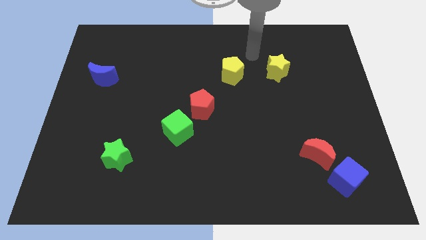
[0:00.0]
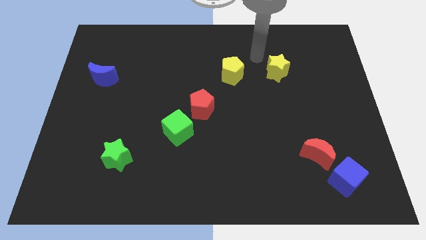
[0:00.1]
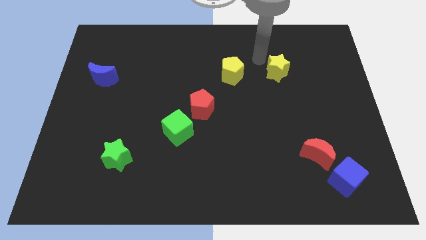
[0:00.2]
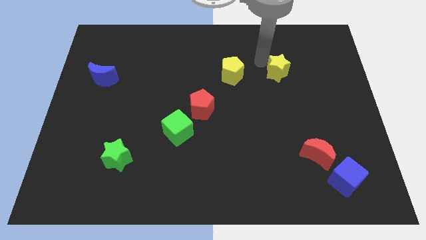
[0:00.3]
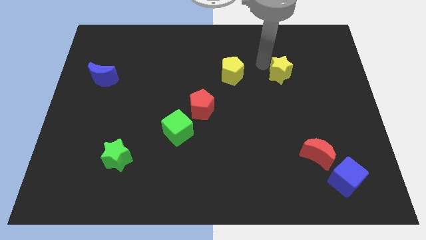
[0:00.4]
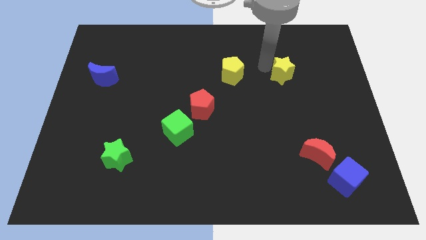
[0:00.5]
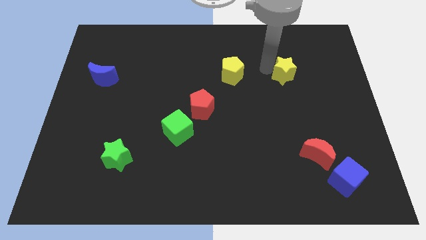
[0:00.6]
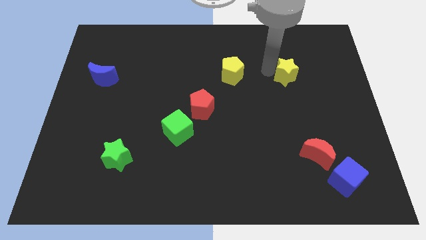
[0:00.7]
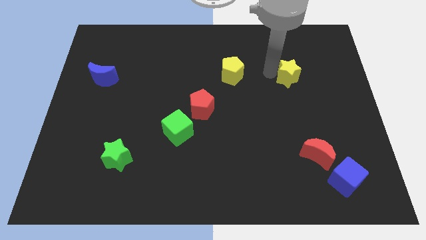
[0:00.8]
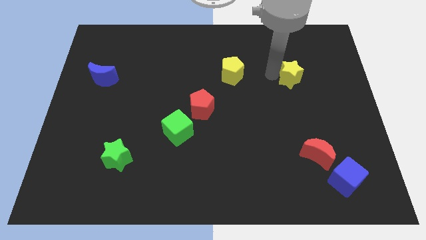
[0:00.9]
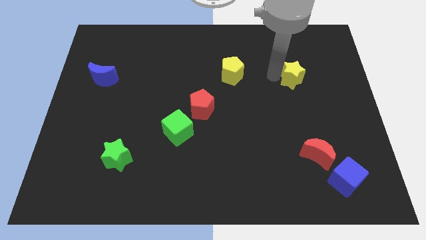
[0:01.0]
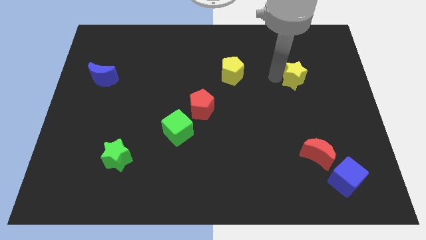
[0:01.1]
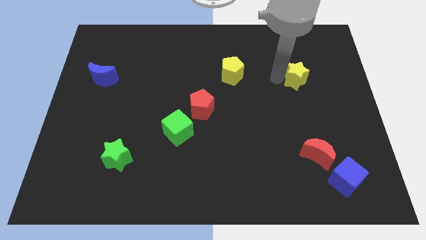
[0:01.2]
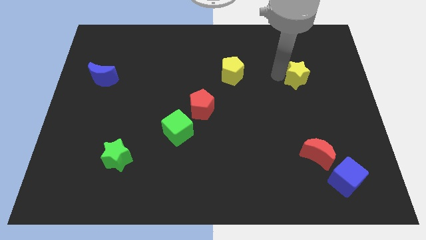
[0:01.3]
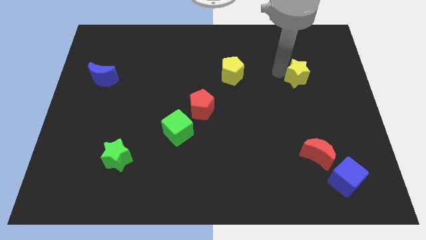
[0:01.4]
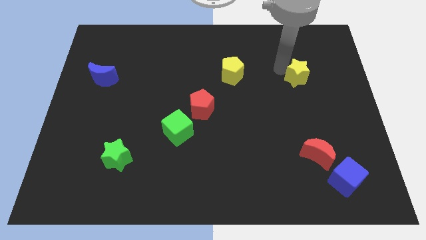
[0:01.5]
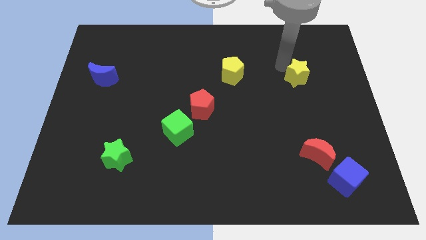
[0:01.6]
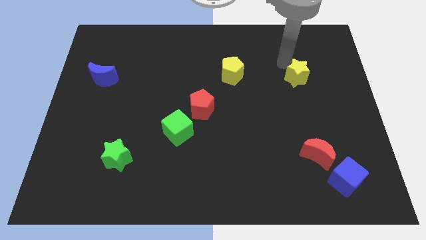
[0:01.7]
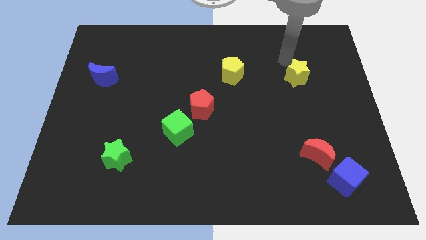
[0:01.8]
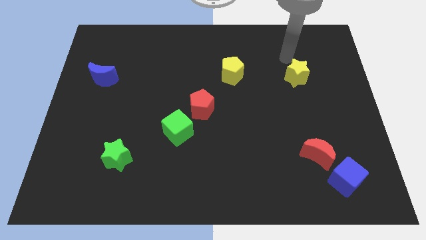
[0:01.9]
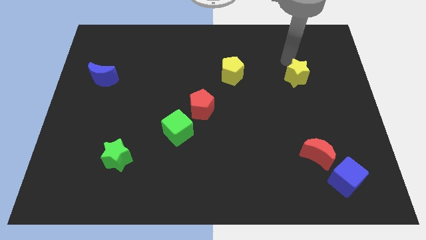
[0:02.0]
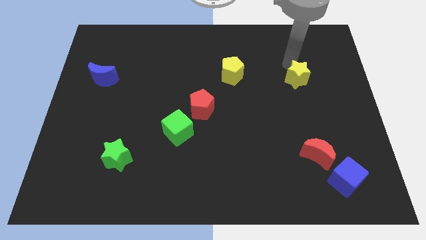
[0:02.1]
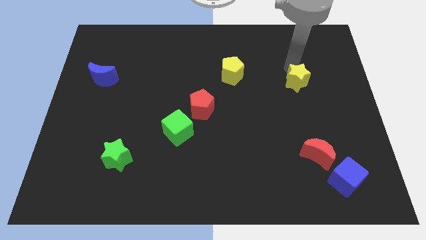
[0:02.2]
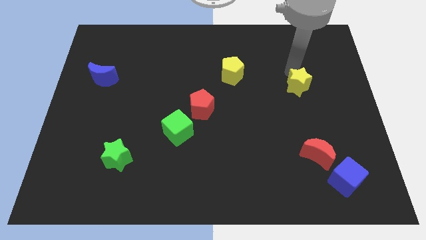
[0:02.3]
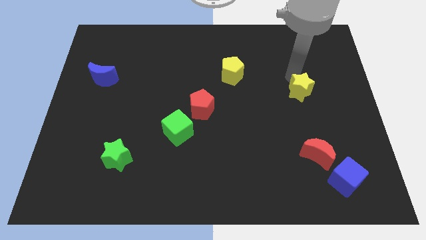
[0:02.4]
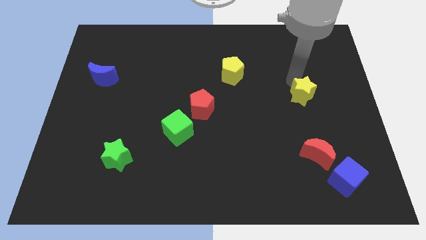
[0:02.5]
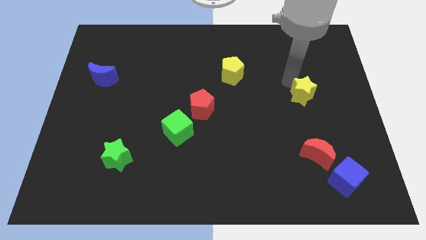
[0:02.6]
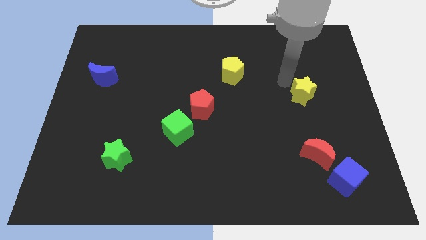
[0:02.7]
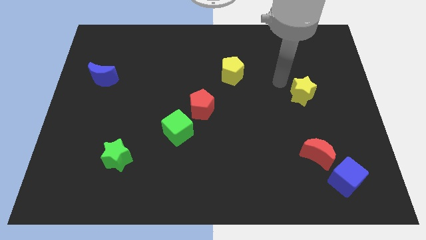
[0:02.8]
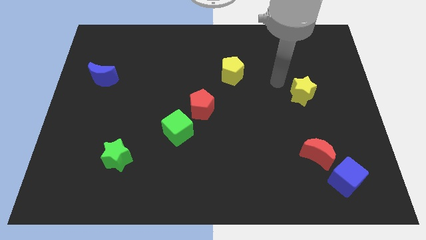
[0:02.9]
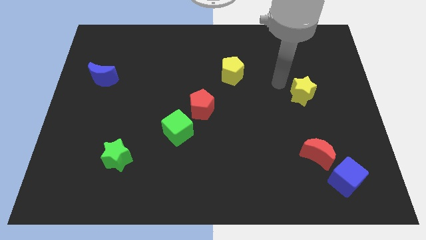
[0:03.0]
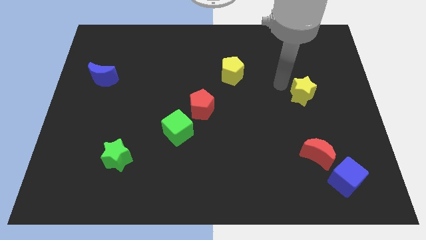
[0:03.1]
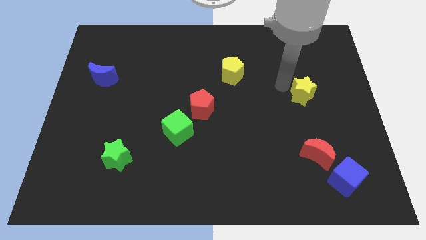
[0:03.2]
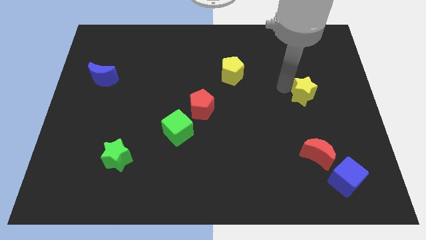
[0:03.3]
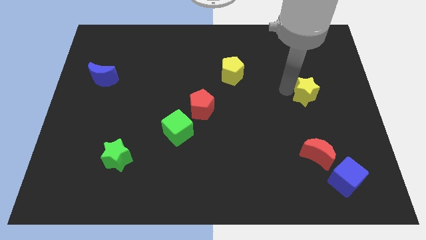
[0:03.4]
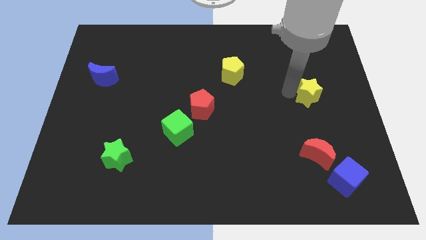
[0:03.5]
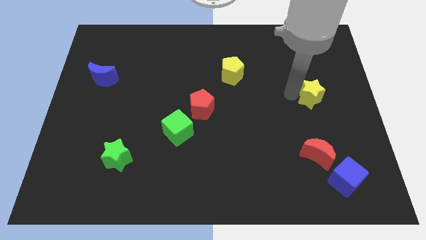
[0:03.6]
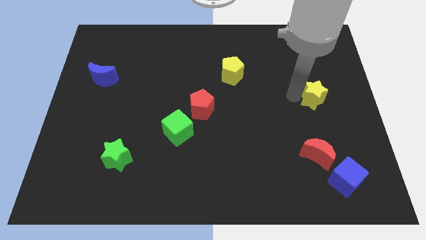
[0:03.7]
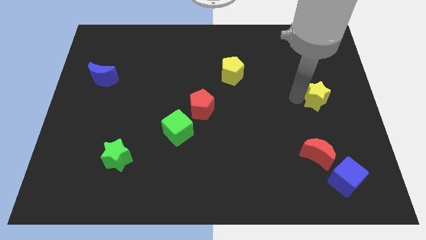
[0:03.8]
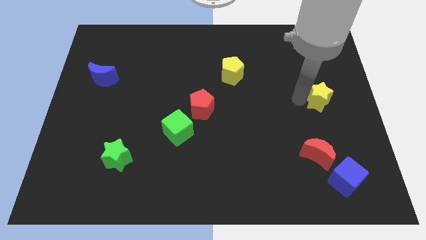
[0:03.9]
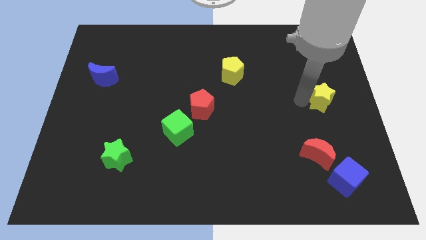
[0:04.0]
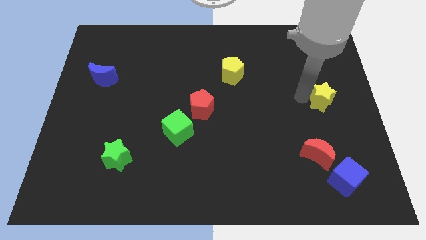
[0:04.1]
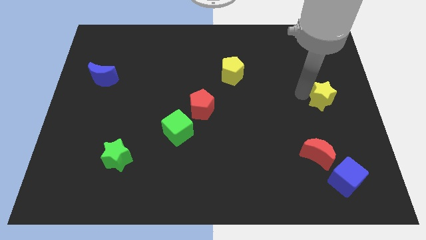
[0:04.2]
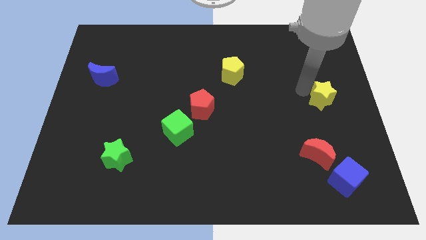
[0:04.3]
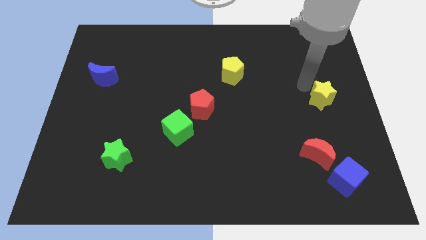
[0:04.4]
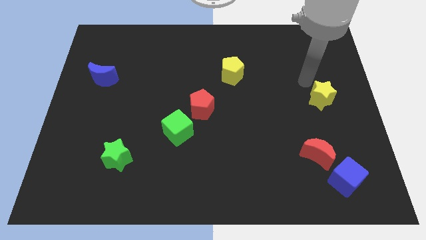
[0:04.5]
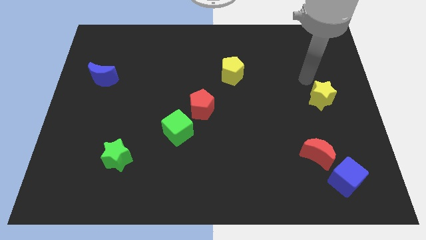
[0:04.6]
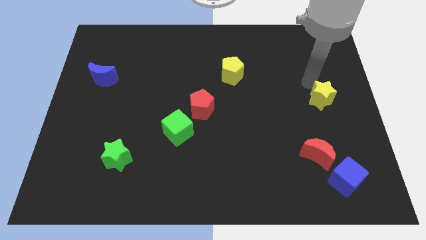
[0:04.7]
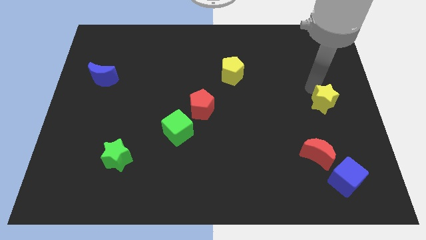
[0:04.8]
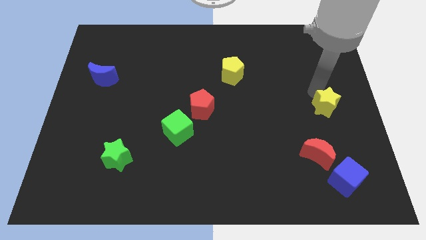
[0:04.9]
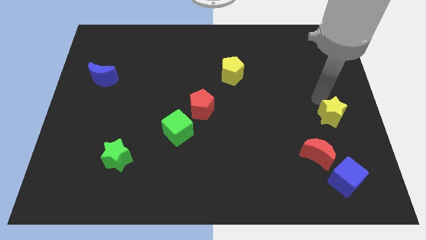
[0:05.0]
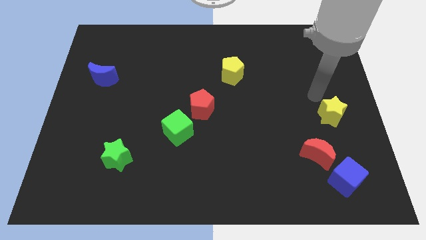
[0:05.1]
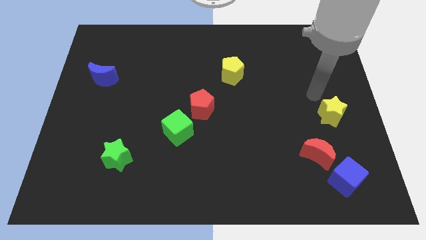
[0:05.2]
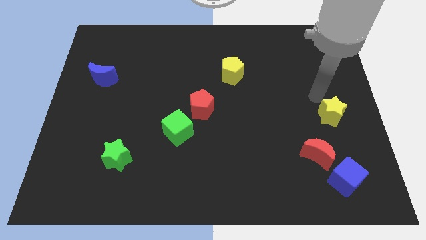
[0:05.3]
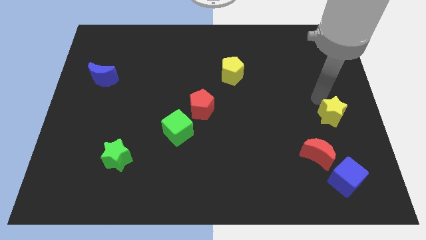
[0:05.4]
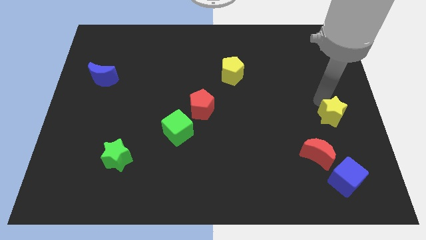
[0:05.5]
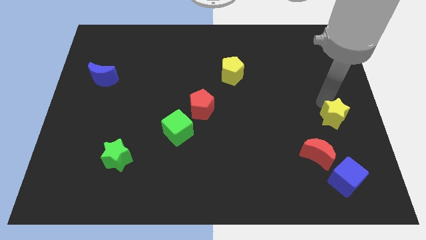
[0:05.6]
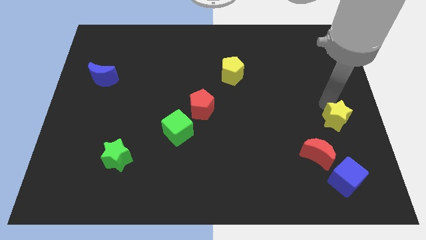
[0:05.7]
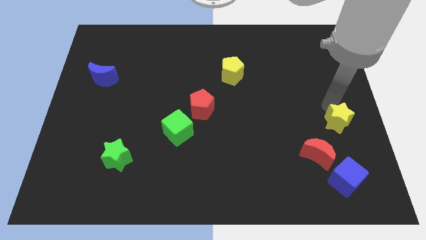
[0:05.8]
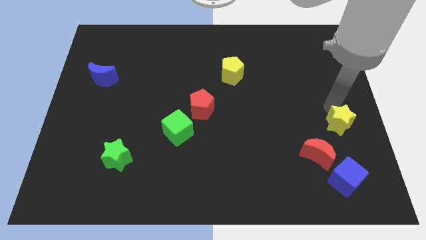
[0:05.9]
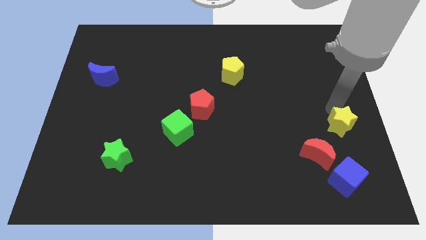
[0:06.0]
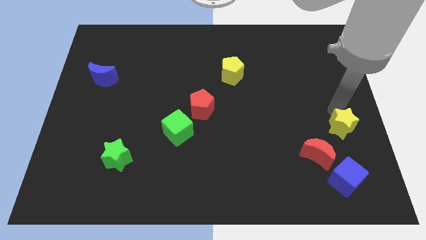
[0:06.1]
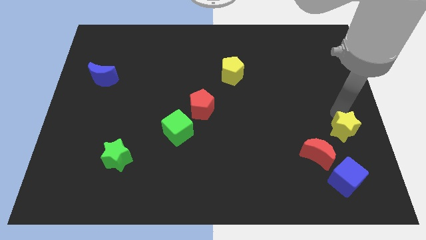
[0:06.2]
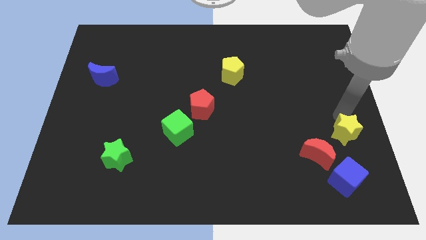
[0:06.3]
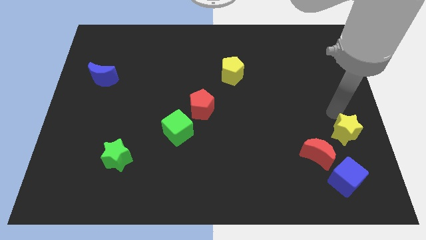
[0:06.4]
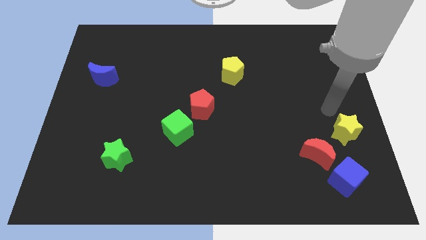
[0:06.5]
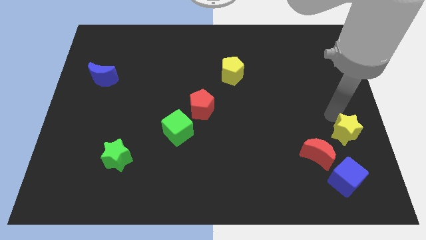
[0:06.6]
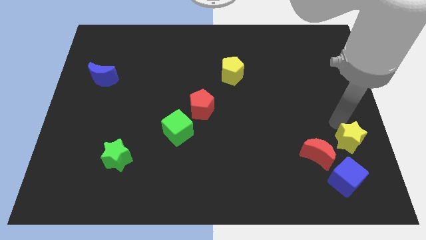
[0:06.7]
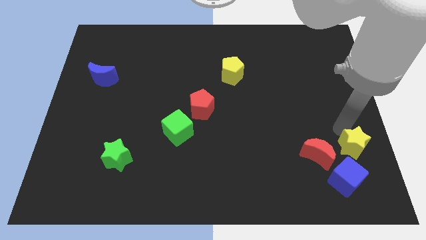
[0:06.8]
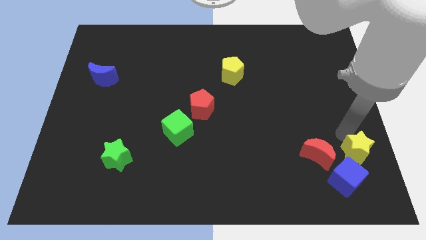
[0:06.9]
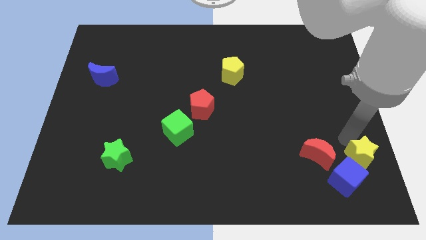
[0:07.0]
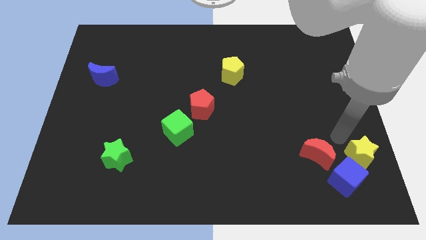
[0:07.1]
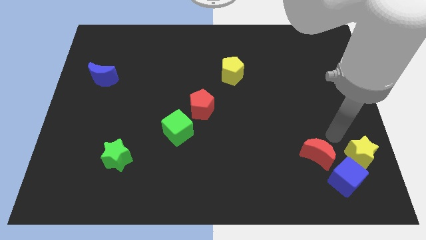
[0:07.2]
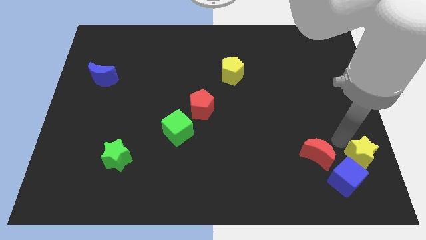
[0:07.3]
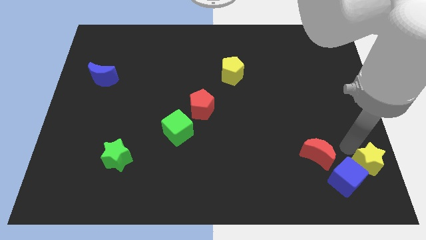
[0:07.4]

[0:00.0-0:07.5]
move the yellow star to the bottom right
